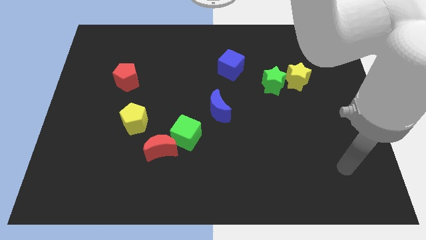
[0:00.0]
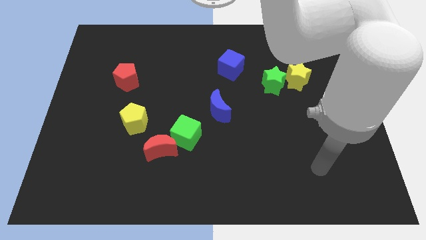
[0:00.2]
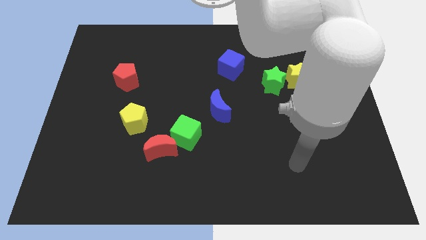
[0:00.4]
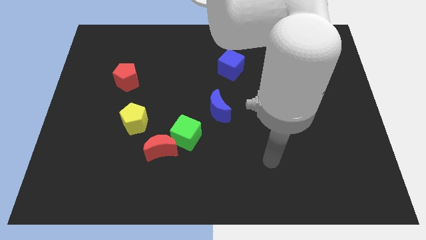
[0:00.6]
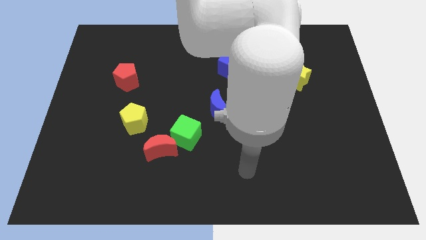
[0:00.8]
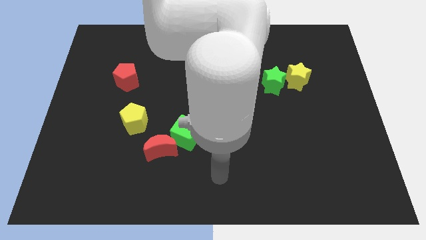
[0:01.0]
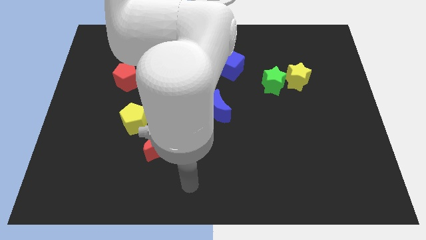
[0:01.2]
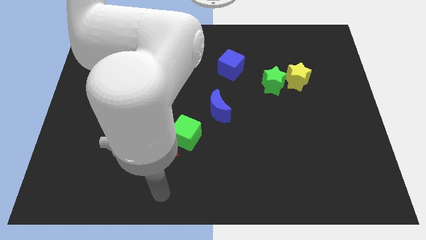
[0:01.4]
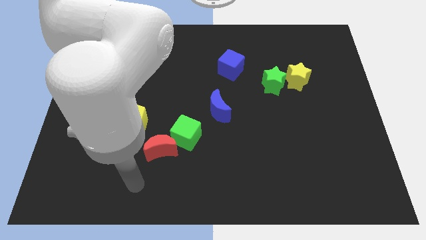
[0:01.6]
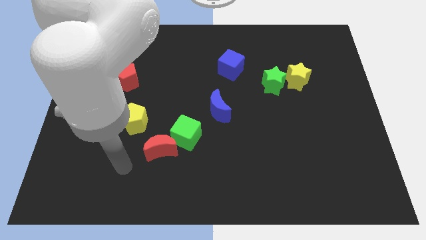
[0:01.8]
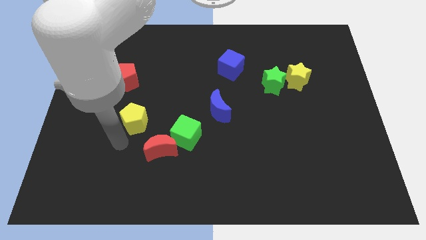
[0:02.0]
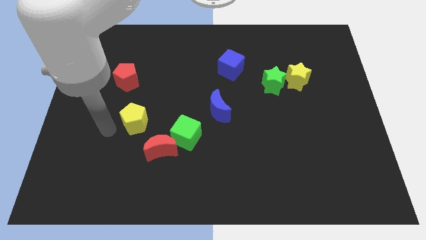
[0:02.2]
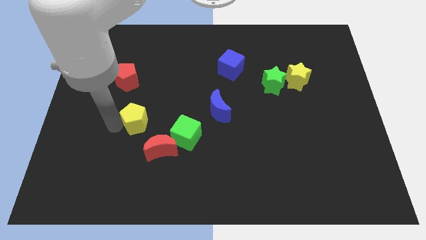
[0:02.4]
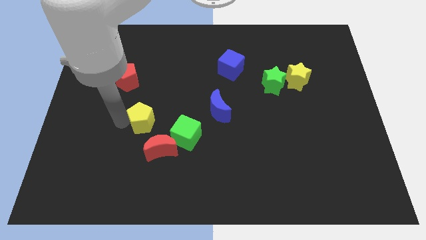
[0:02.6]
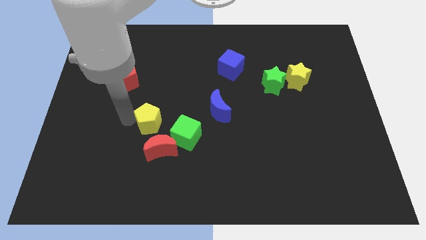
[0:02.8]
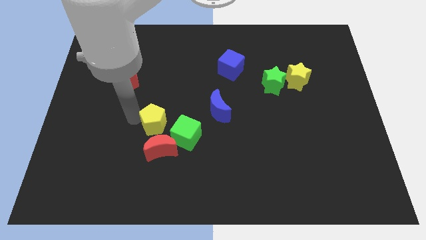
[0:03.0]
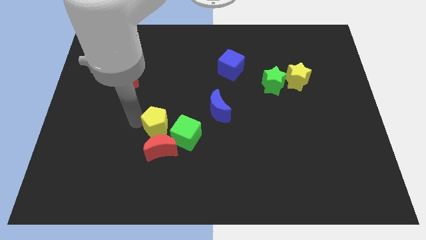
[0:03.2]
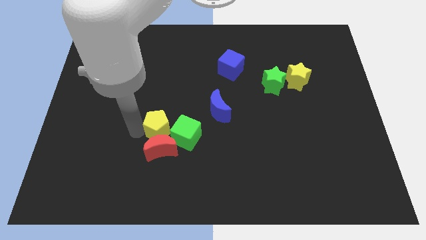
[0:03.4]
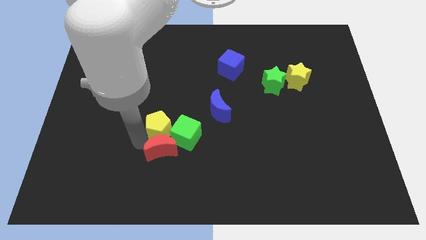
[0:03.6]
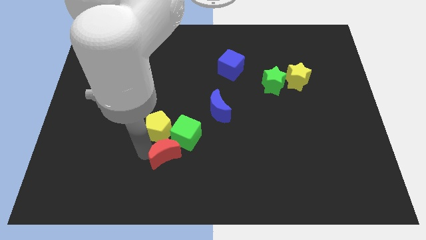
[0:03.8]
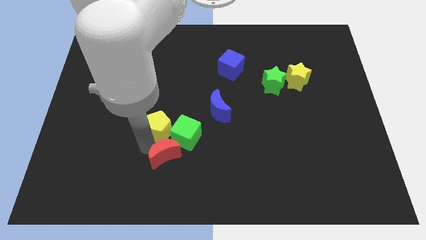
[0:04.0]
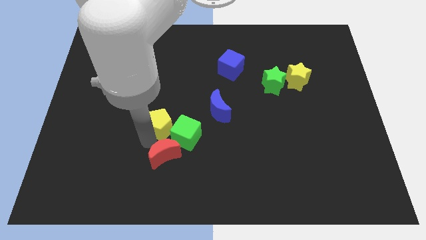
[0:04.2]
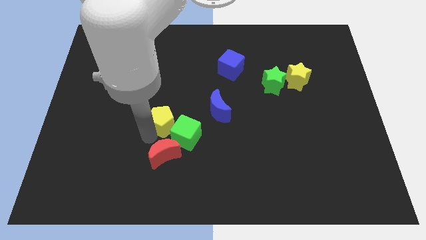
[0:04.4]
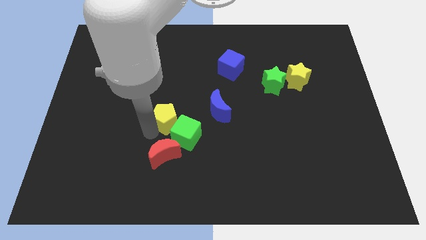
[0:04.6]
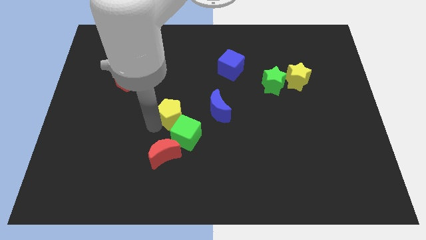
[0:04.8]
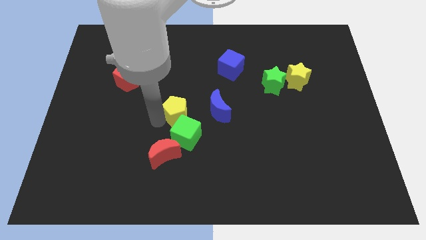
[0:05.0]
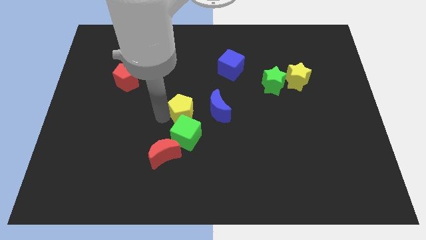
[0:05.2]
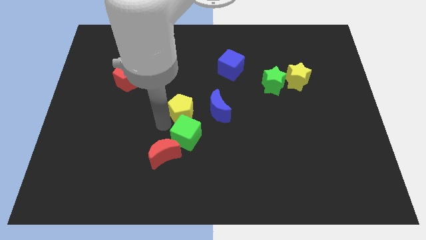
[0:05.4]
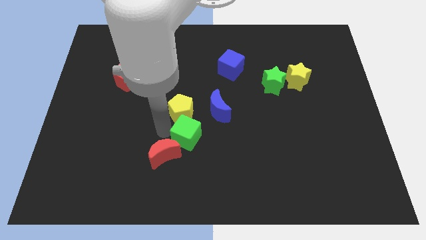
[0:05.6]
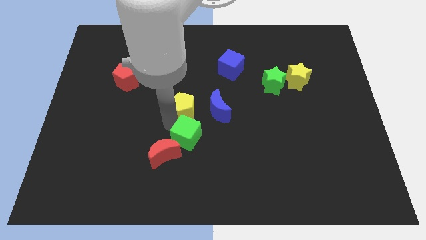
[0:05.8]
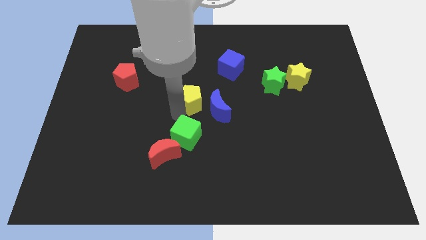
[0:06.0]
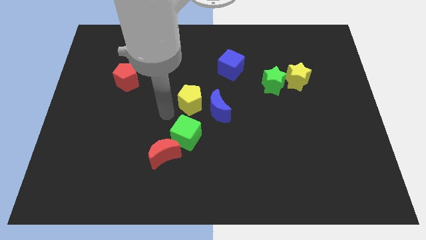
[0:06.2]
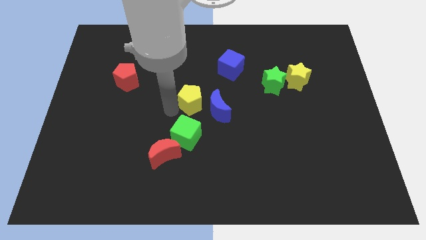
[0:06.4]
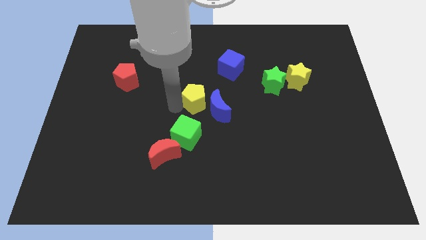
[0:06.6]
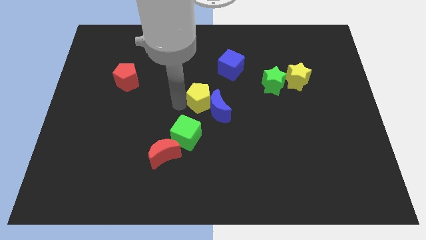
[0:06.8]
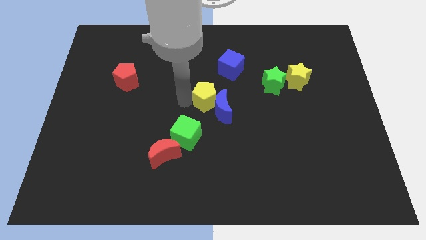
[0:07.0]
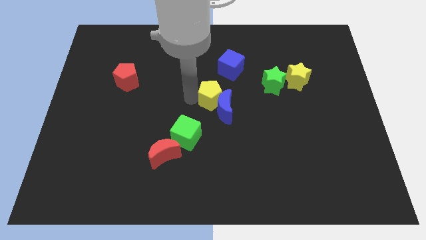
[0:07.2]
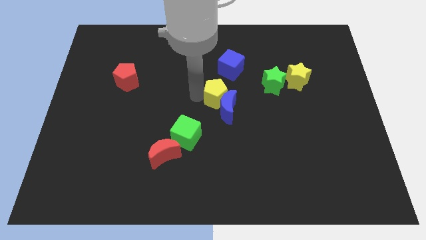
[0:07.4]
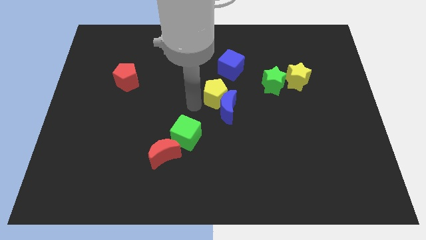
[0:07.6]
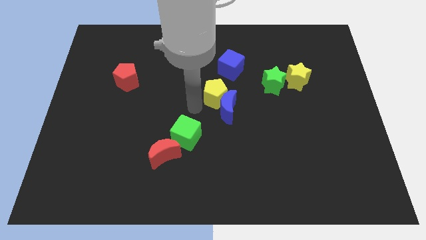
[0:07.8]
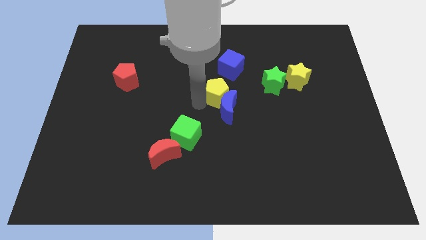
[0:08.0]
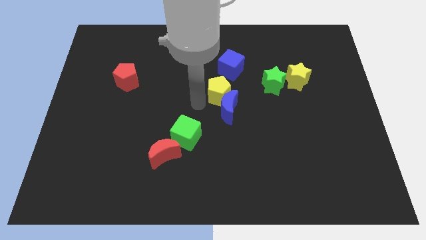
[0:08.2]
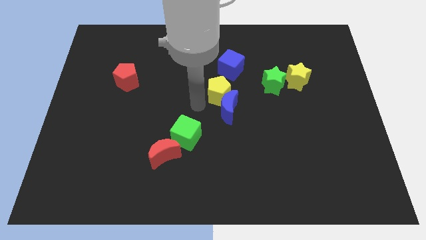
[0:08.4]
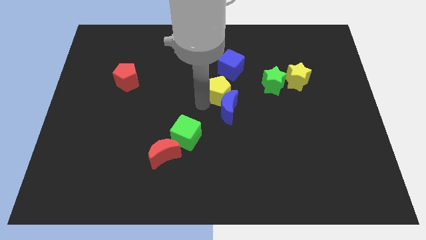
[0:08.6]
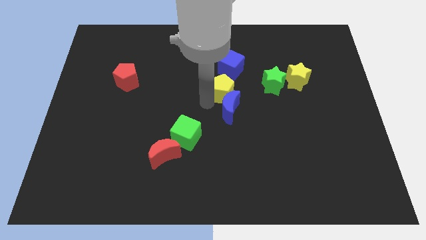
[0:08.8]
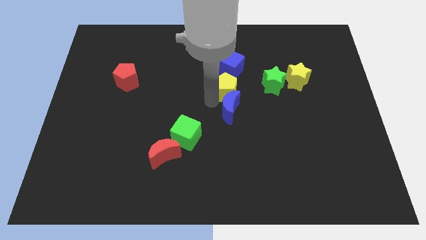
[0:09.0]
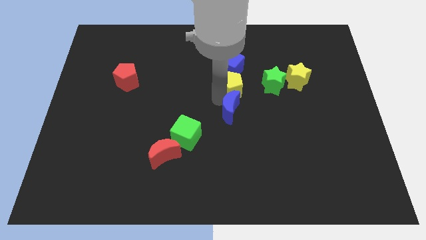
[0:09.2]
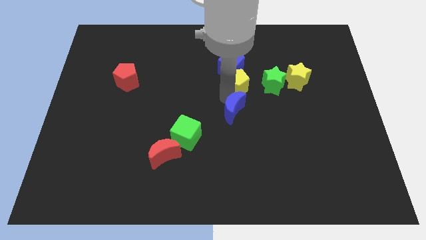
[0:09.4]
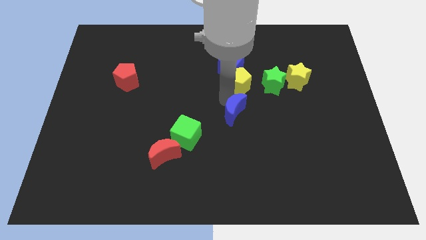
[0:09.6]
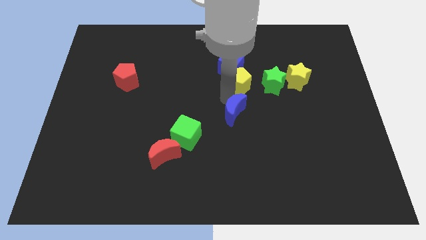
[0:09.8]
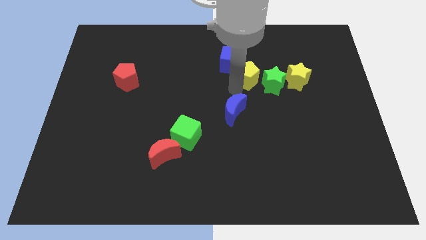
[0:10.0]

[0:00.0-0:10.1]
push the yellow pentagon to the top left side of the green star

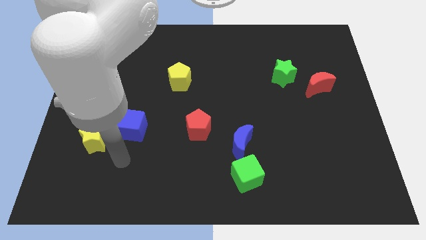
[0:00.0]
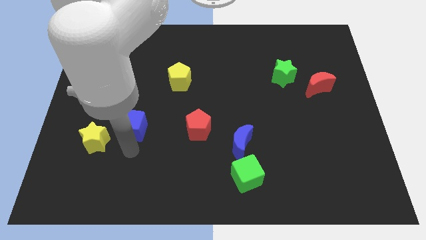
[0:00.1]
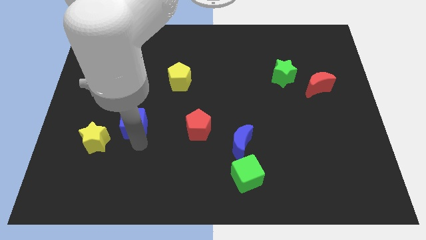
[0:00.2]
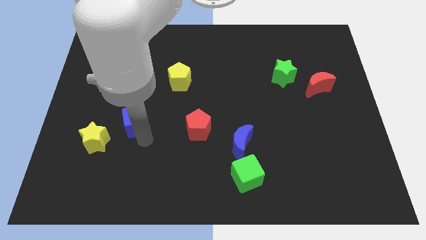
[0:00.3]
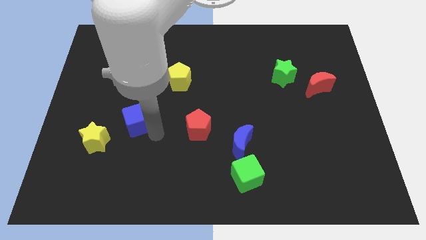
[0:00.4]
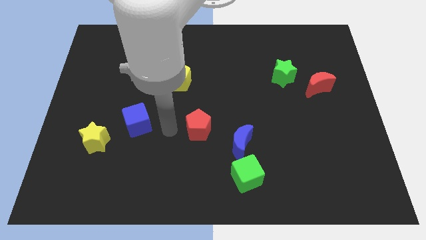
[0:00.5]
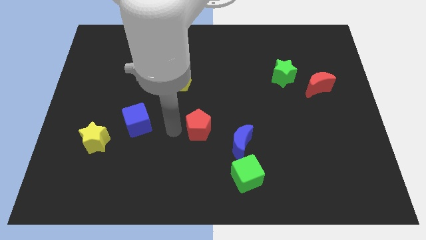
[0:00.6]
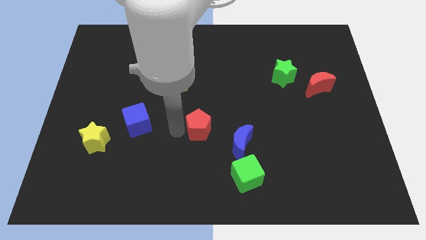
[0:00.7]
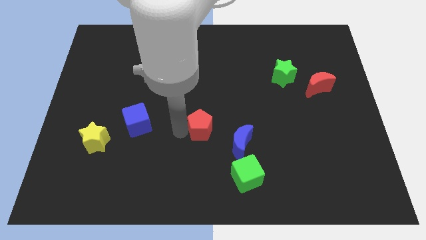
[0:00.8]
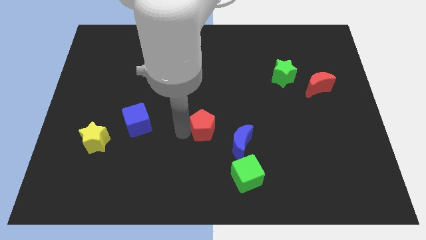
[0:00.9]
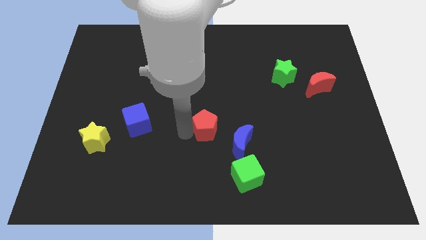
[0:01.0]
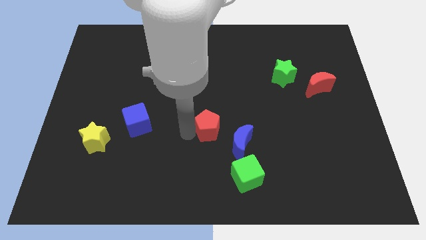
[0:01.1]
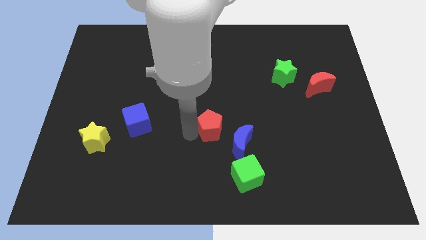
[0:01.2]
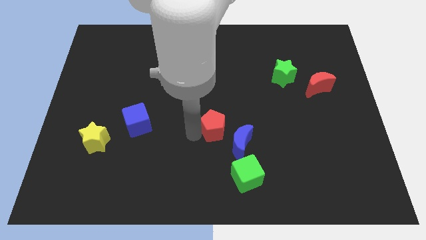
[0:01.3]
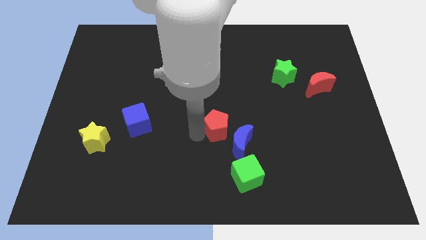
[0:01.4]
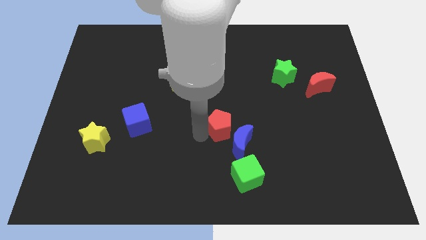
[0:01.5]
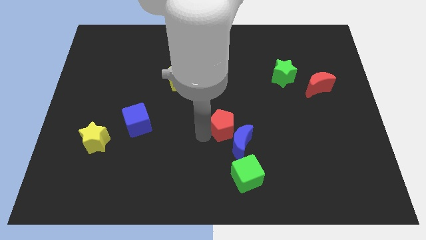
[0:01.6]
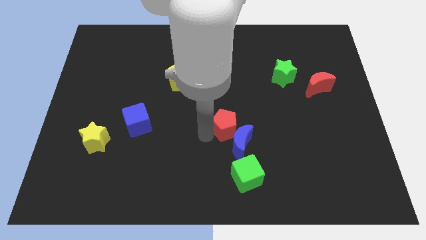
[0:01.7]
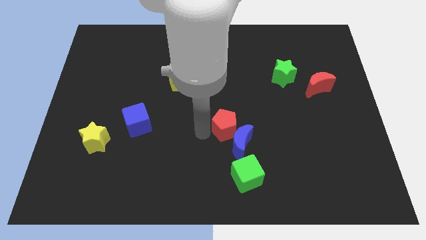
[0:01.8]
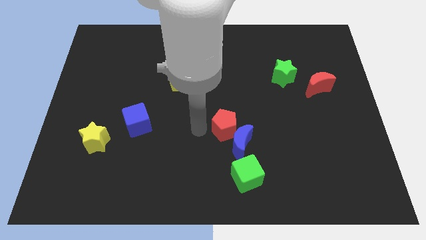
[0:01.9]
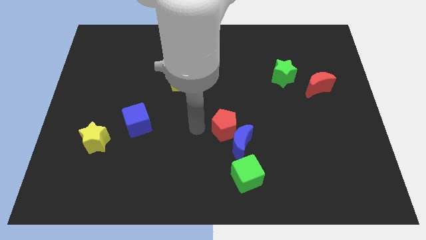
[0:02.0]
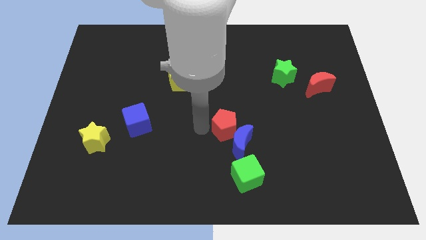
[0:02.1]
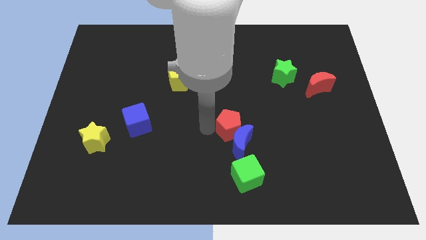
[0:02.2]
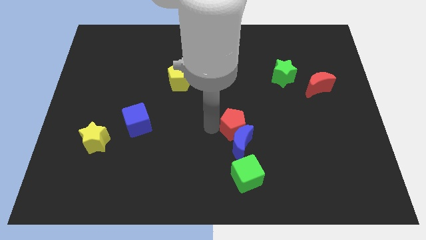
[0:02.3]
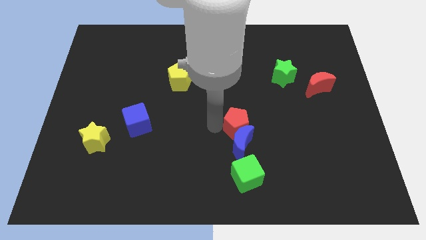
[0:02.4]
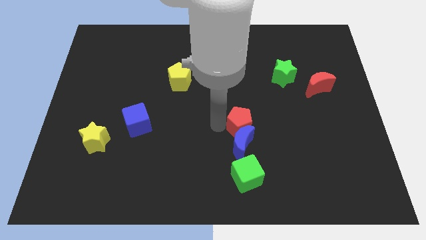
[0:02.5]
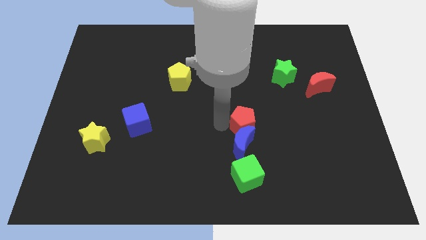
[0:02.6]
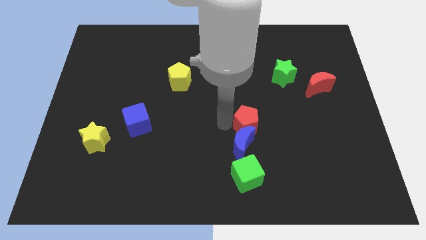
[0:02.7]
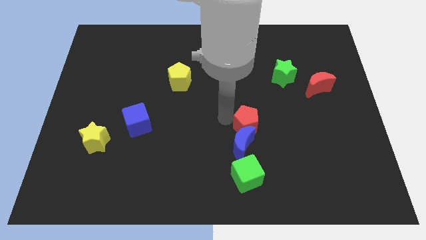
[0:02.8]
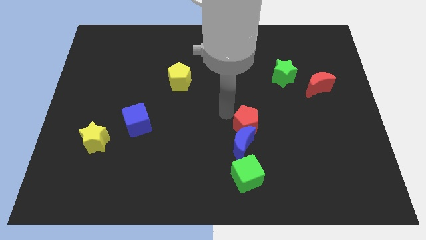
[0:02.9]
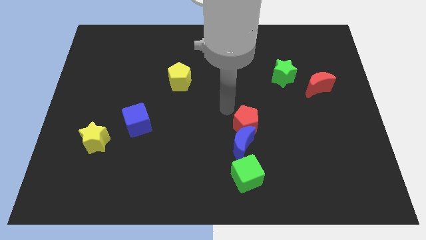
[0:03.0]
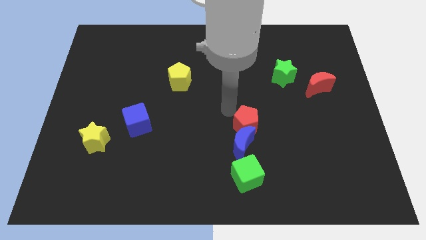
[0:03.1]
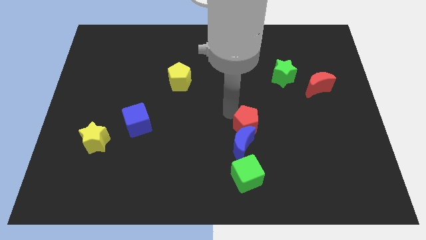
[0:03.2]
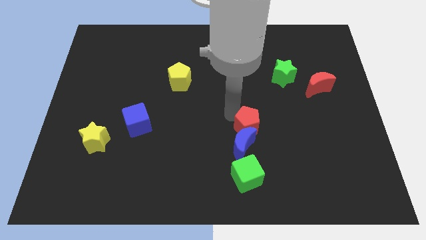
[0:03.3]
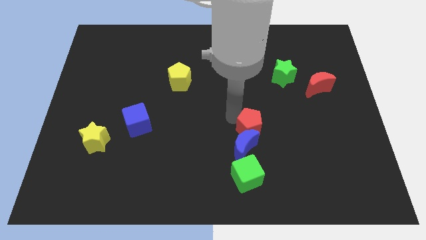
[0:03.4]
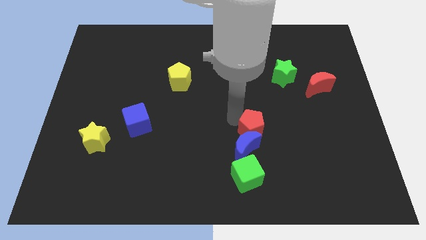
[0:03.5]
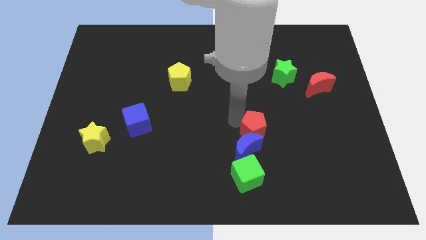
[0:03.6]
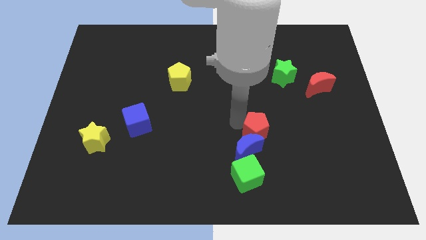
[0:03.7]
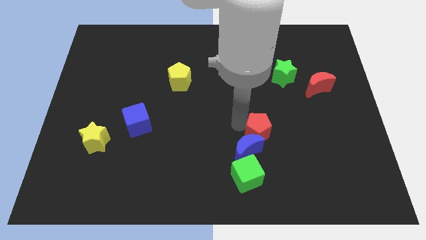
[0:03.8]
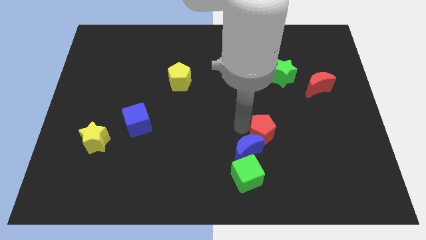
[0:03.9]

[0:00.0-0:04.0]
move the red pentagon just right of the blue moon
